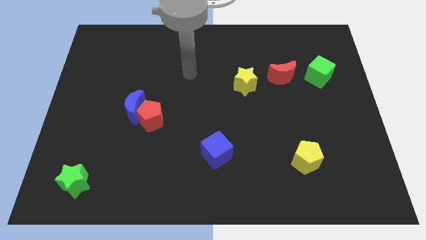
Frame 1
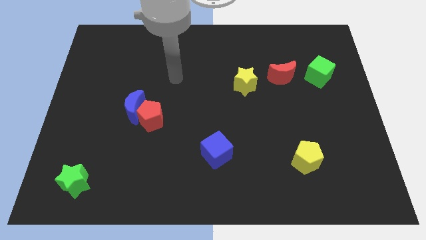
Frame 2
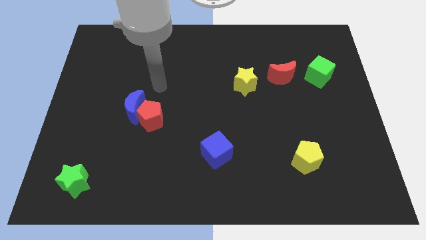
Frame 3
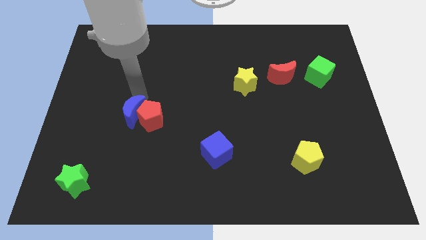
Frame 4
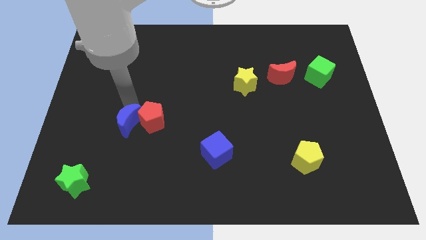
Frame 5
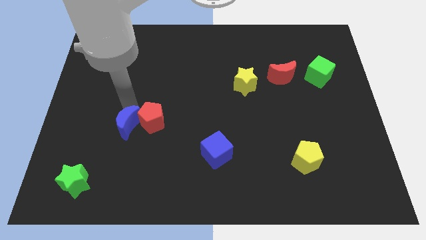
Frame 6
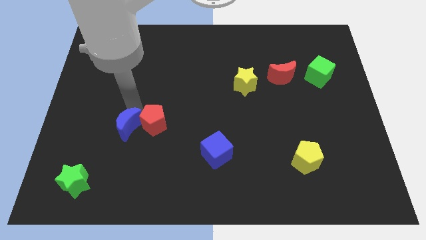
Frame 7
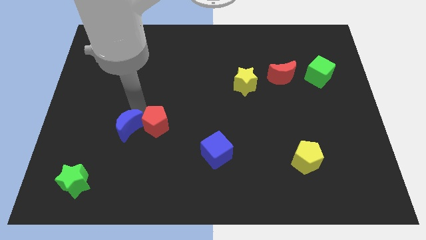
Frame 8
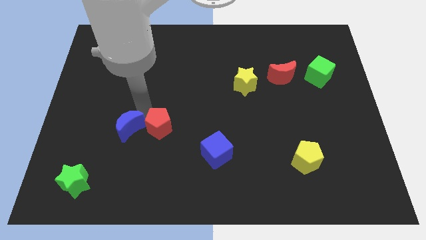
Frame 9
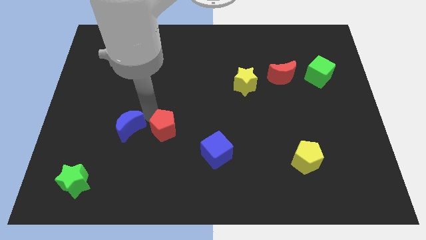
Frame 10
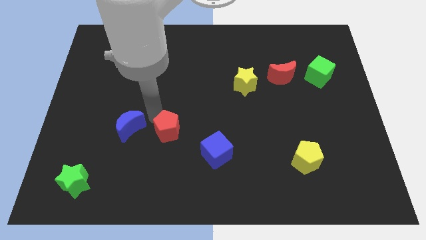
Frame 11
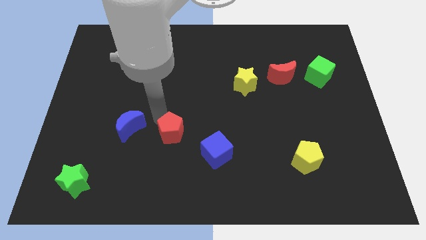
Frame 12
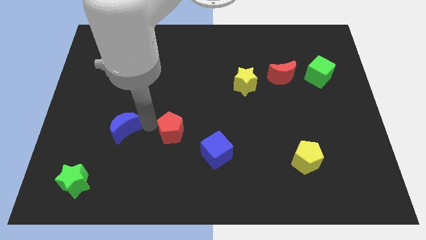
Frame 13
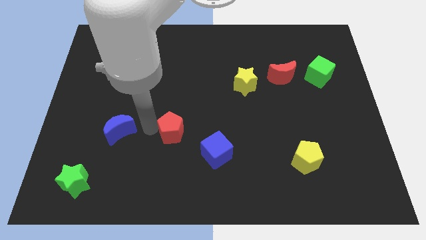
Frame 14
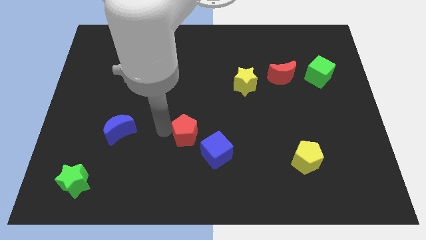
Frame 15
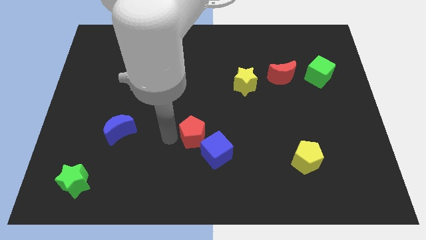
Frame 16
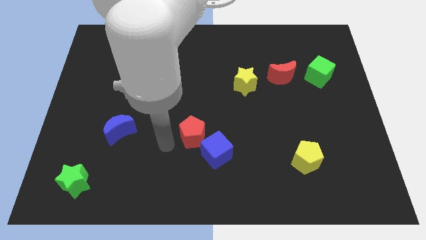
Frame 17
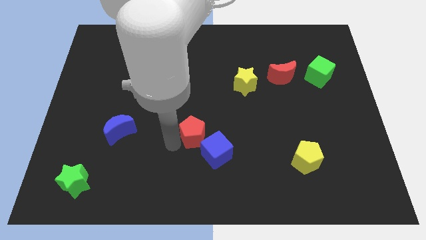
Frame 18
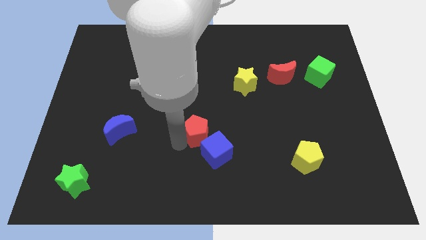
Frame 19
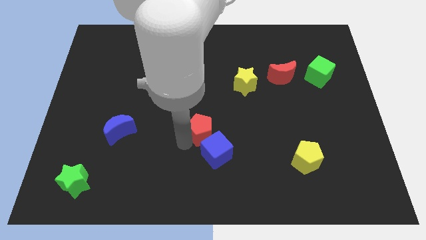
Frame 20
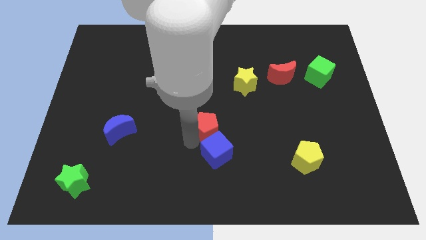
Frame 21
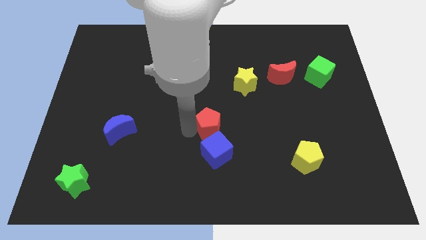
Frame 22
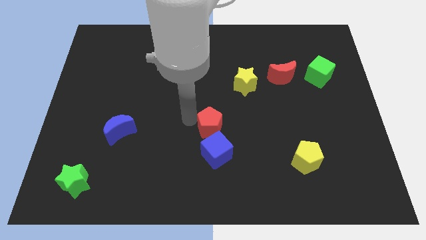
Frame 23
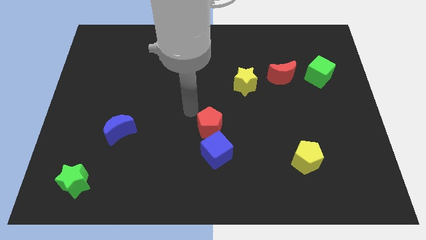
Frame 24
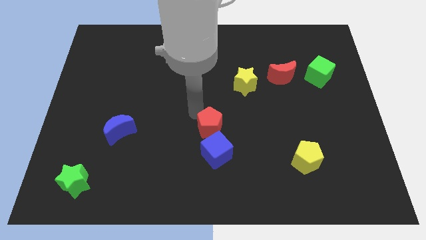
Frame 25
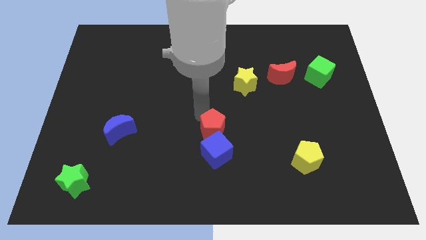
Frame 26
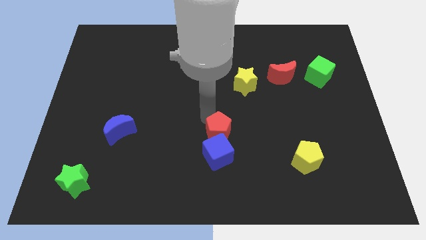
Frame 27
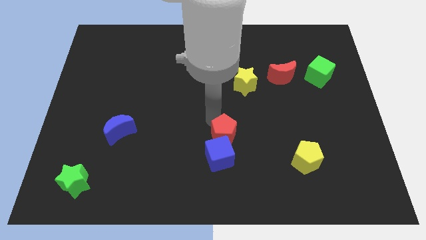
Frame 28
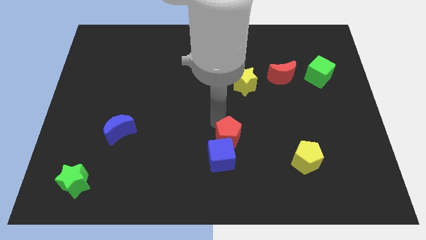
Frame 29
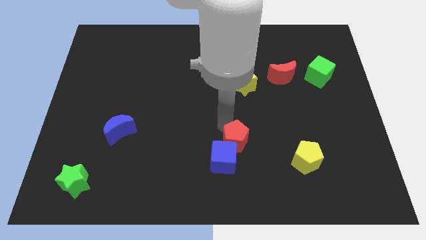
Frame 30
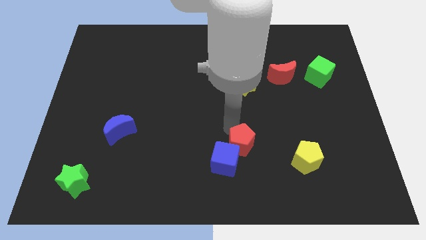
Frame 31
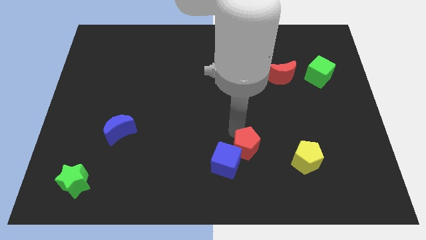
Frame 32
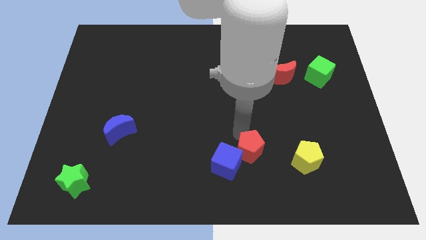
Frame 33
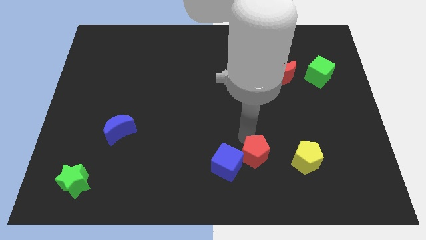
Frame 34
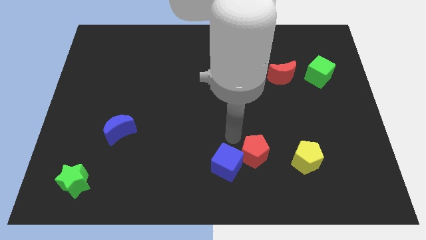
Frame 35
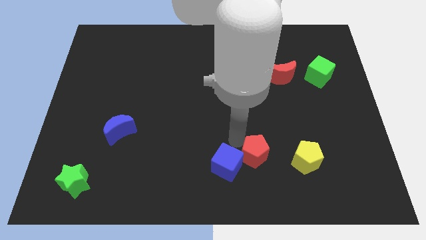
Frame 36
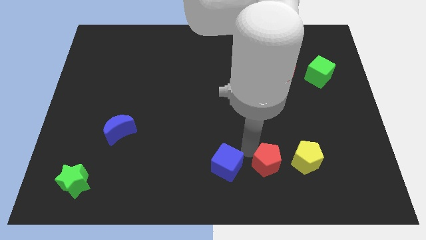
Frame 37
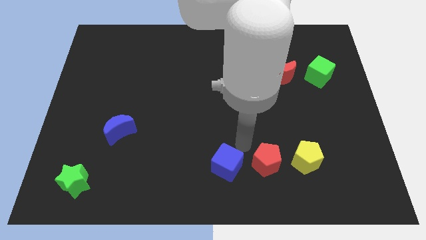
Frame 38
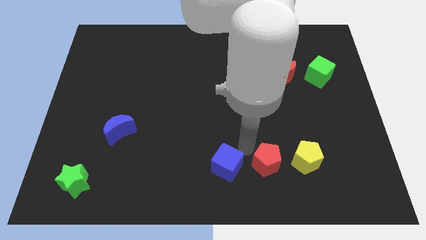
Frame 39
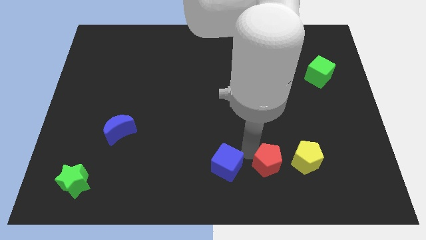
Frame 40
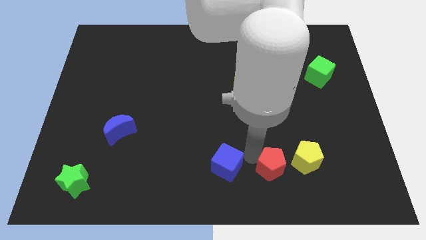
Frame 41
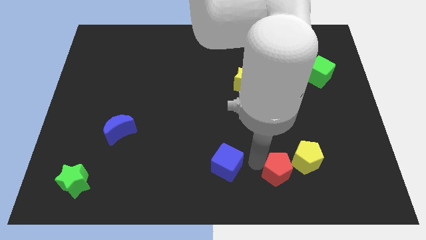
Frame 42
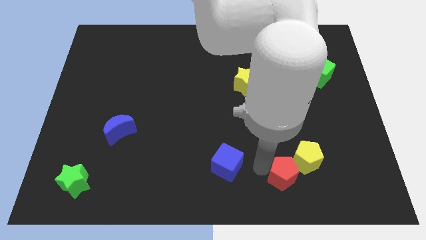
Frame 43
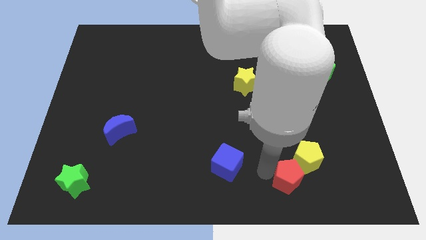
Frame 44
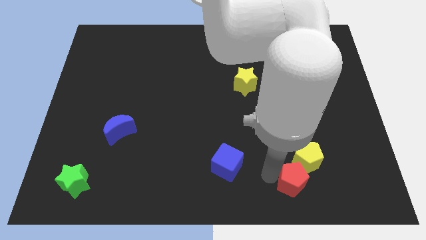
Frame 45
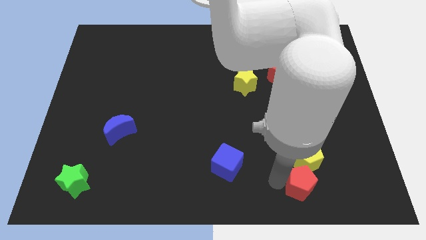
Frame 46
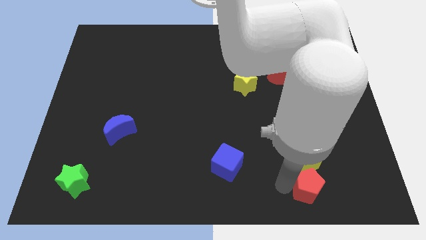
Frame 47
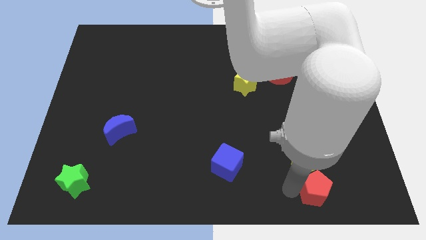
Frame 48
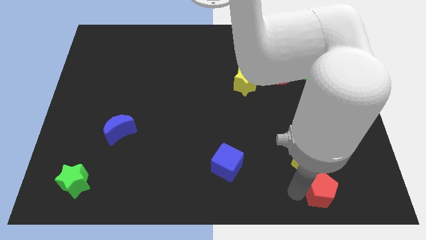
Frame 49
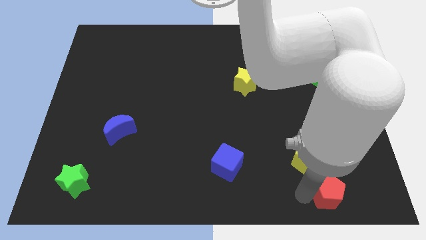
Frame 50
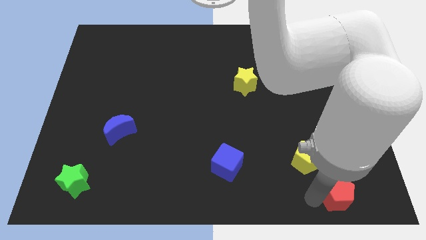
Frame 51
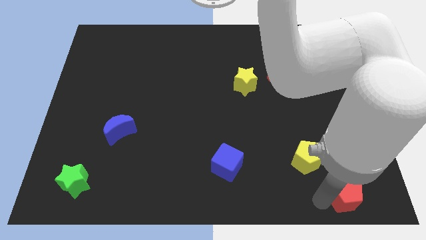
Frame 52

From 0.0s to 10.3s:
put the red pentagon to the bottom right of the board

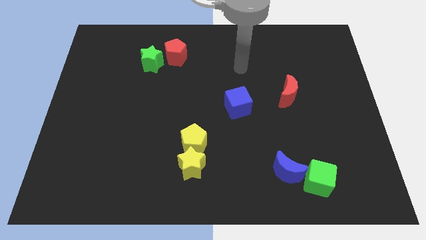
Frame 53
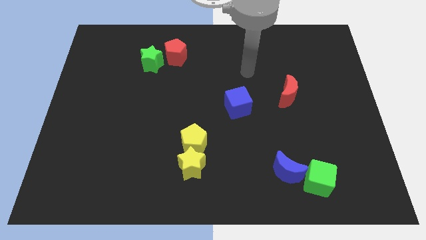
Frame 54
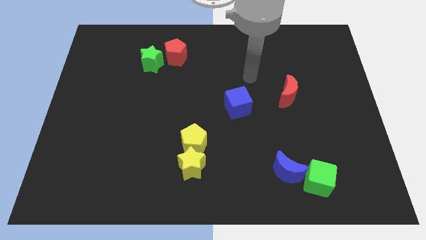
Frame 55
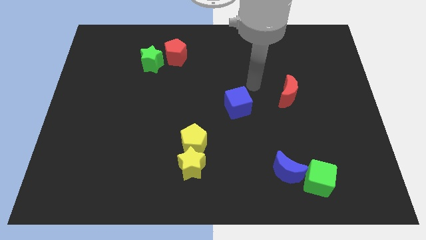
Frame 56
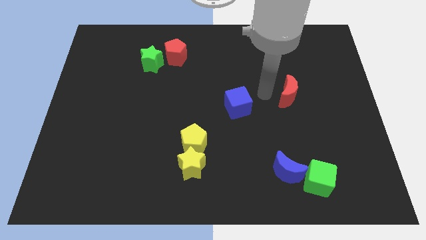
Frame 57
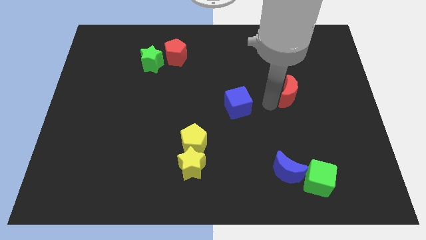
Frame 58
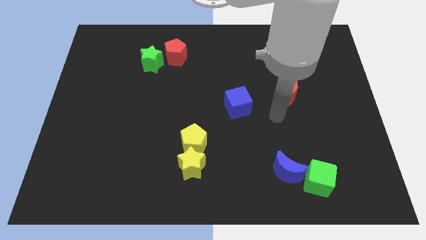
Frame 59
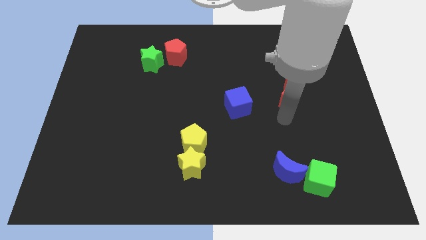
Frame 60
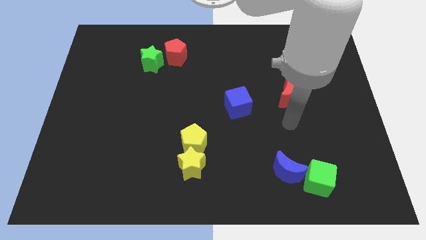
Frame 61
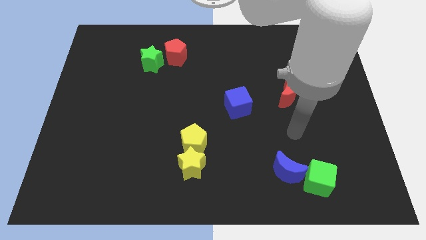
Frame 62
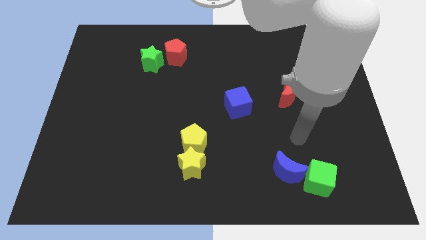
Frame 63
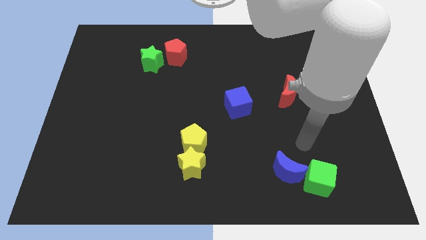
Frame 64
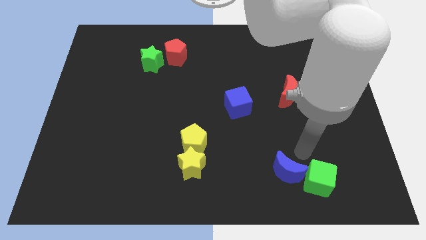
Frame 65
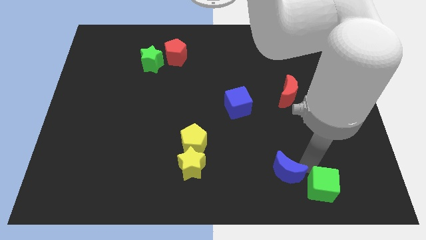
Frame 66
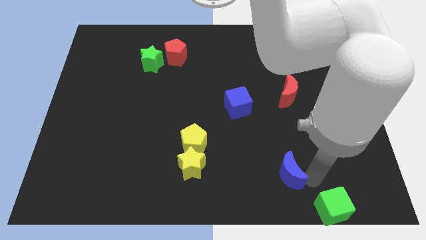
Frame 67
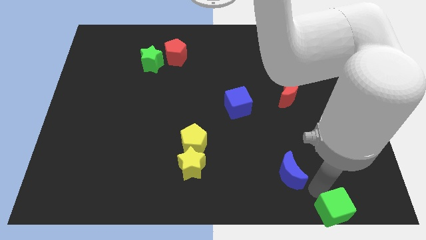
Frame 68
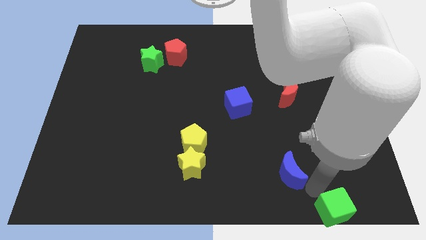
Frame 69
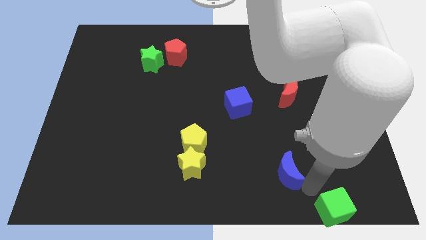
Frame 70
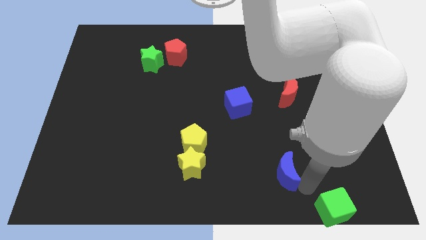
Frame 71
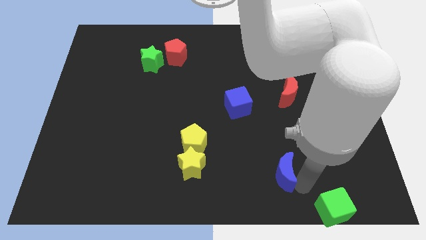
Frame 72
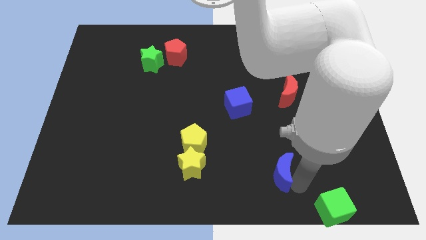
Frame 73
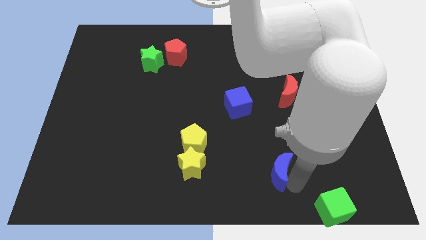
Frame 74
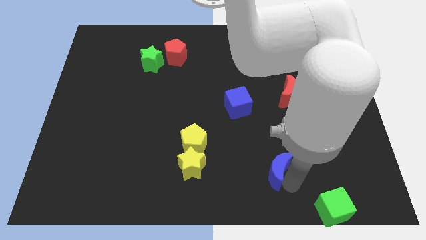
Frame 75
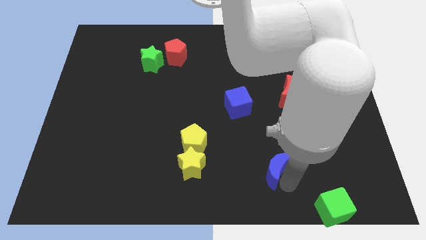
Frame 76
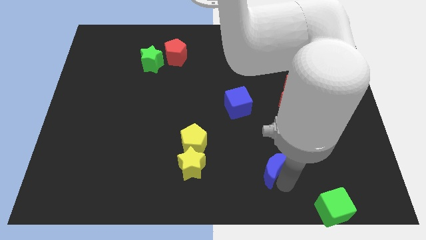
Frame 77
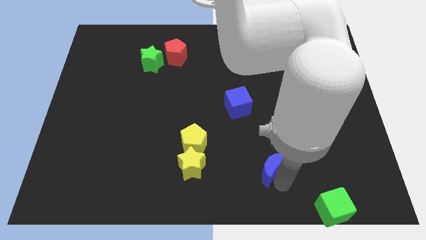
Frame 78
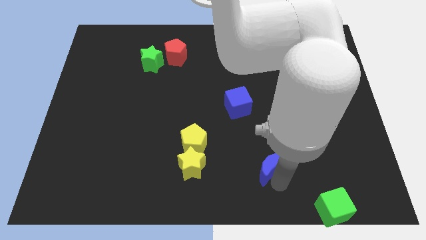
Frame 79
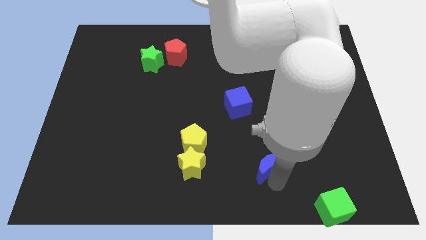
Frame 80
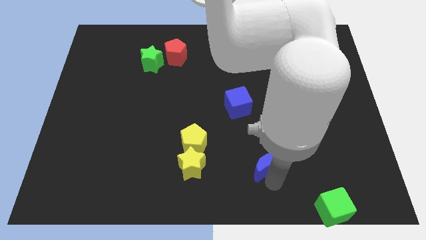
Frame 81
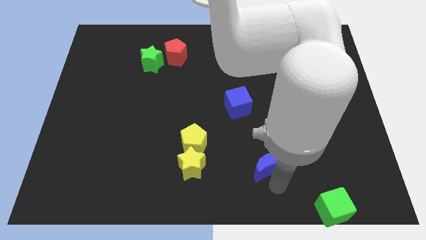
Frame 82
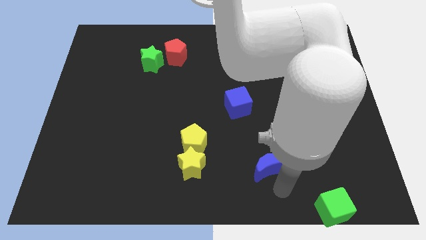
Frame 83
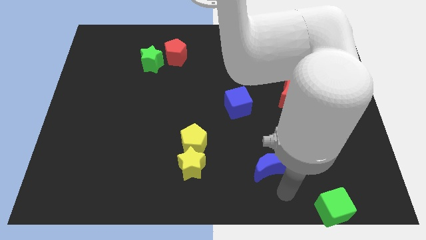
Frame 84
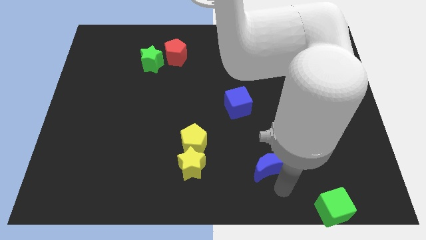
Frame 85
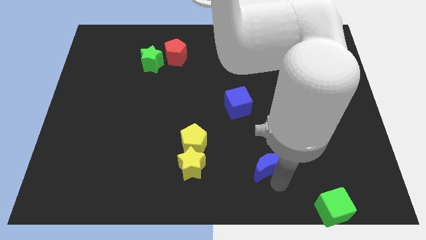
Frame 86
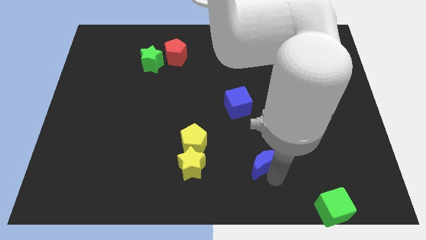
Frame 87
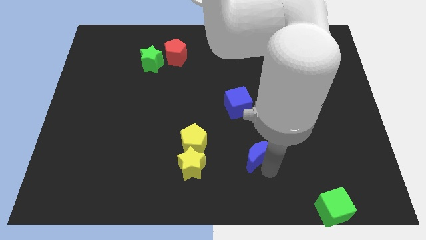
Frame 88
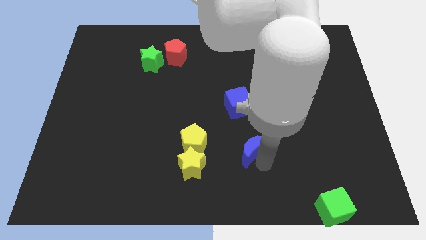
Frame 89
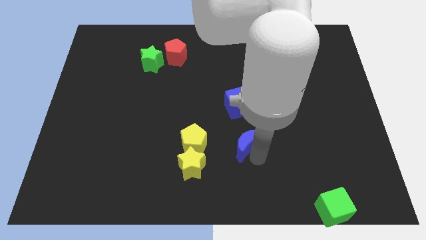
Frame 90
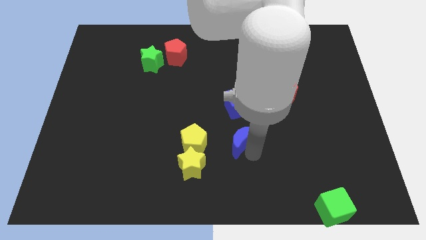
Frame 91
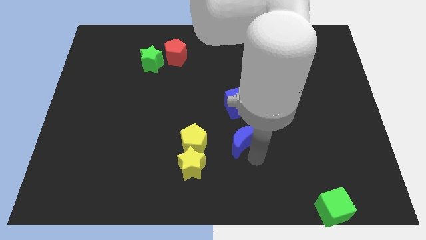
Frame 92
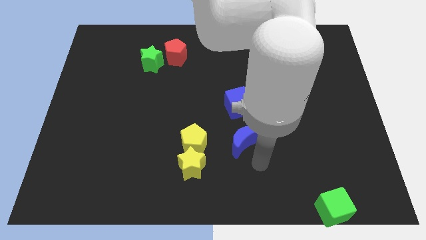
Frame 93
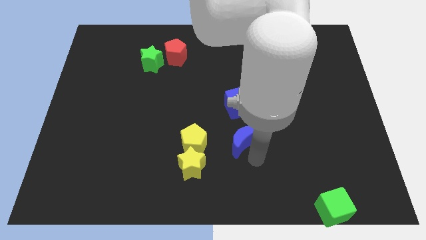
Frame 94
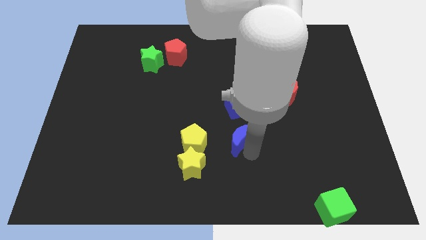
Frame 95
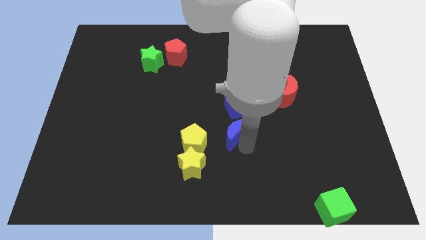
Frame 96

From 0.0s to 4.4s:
slide the blue moon to the middle of the board
